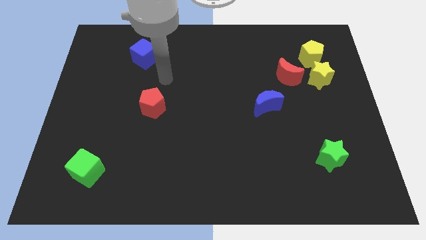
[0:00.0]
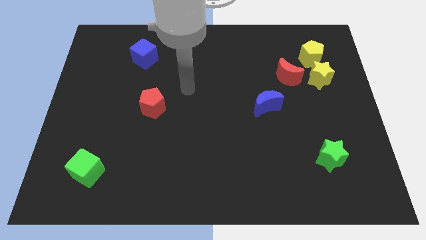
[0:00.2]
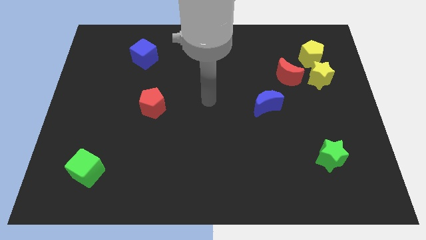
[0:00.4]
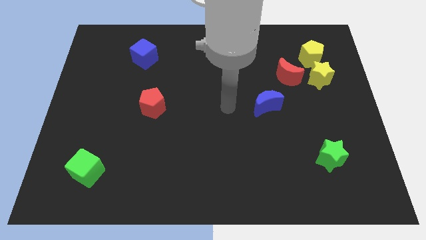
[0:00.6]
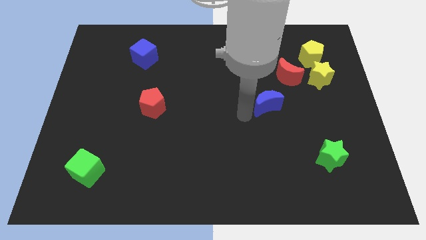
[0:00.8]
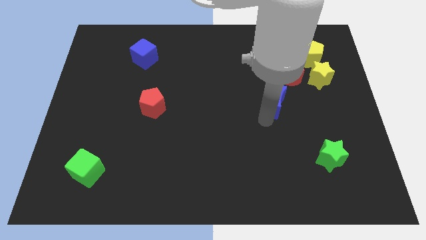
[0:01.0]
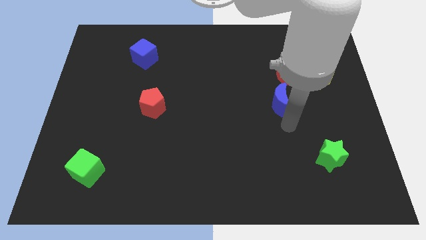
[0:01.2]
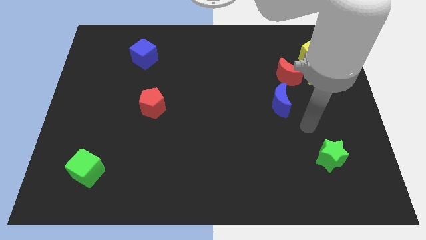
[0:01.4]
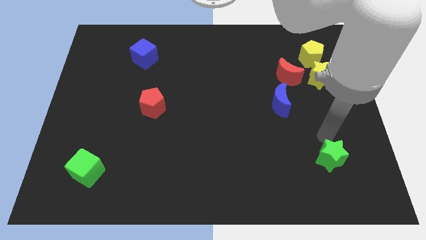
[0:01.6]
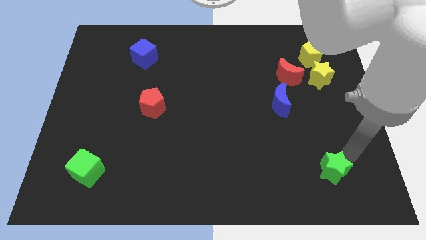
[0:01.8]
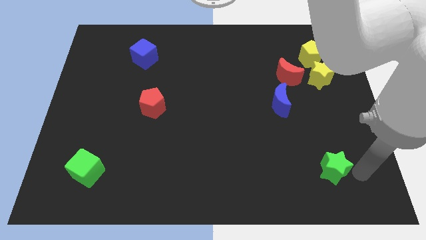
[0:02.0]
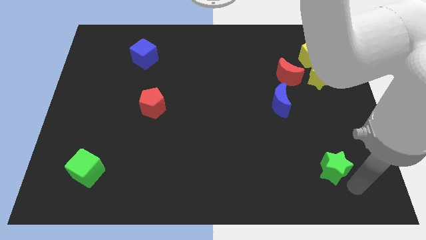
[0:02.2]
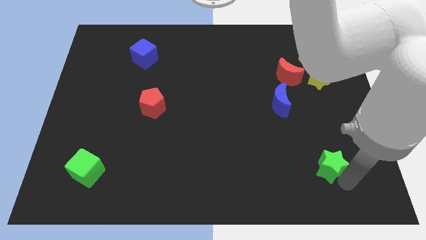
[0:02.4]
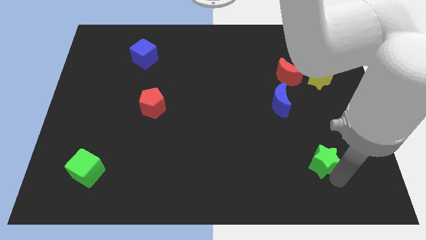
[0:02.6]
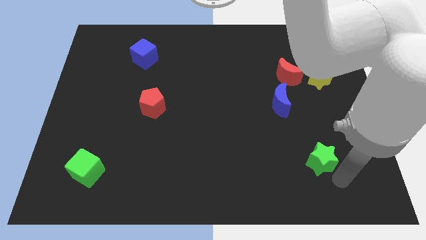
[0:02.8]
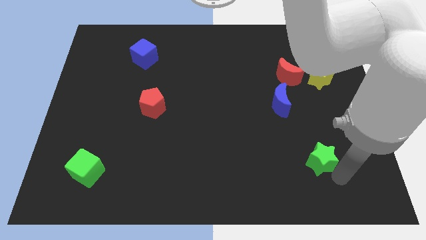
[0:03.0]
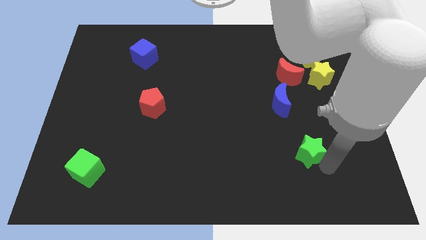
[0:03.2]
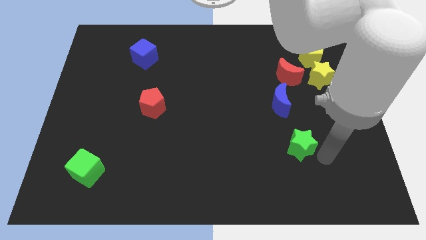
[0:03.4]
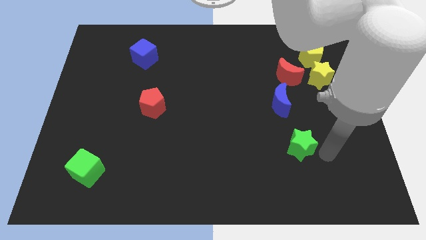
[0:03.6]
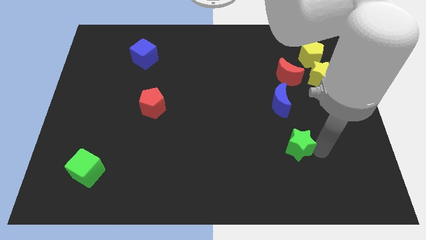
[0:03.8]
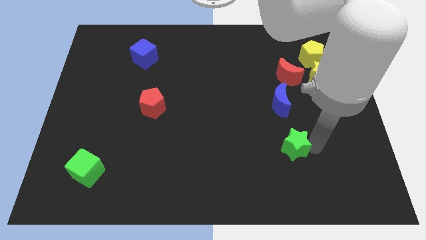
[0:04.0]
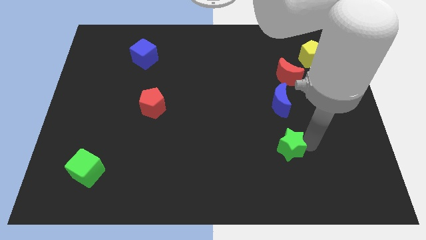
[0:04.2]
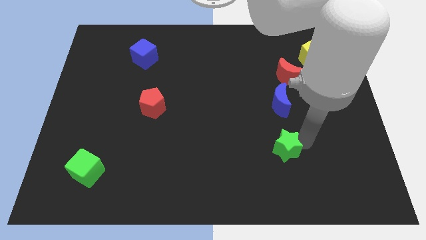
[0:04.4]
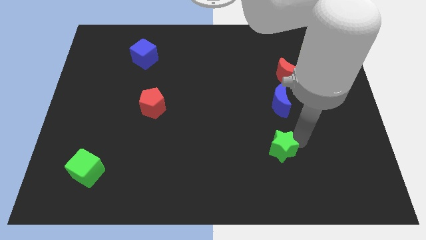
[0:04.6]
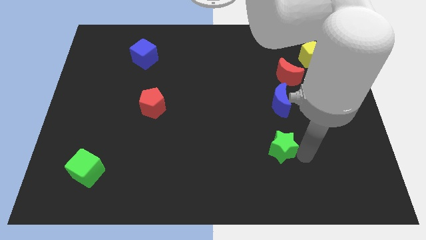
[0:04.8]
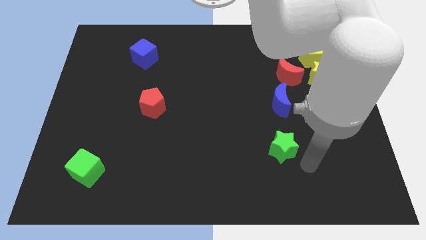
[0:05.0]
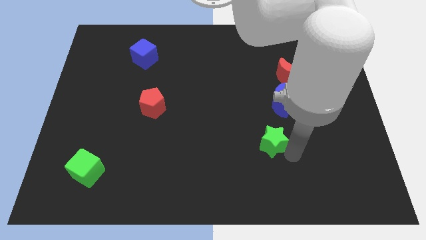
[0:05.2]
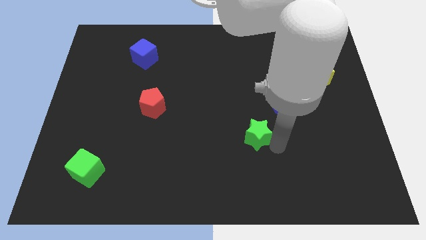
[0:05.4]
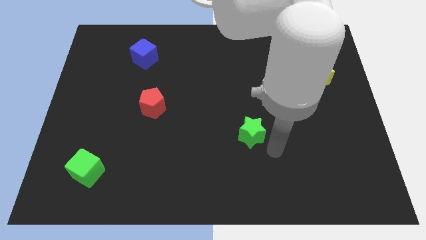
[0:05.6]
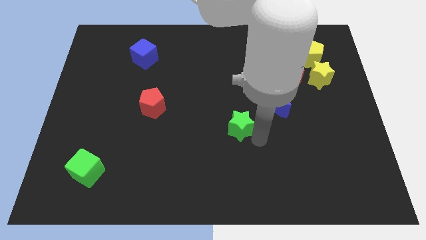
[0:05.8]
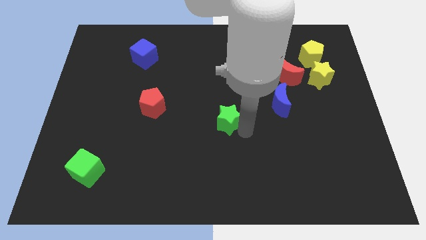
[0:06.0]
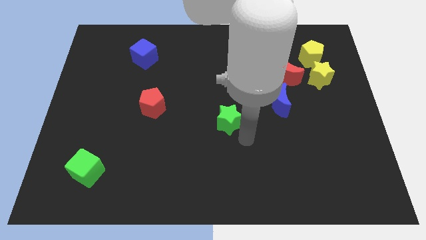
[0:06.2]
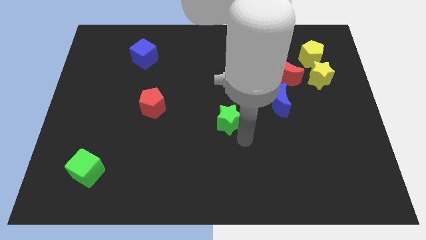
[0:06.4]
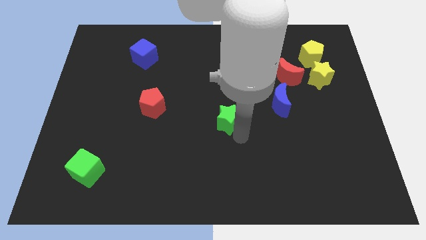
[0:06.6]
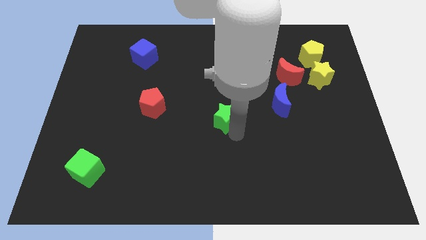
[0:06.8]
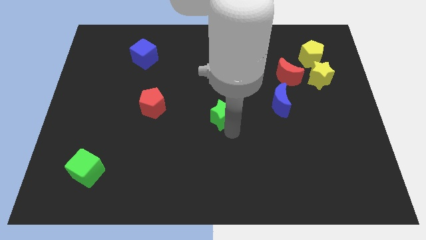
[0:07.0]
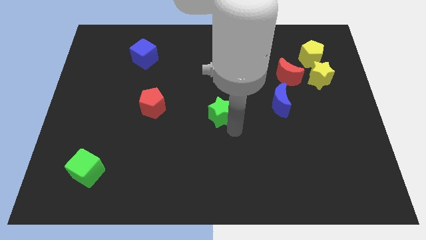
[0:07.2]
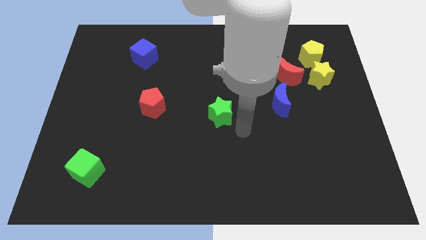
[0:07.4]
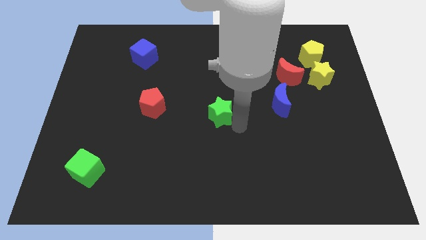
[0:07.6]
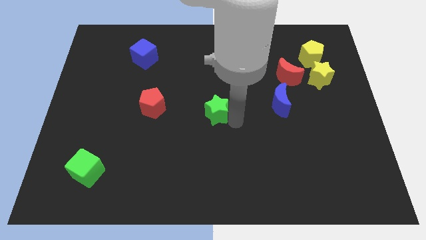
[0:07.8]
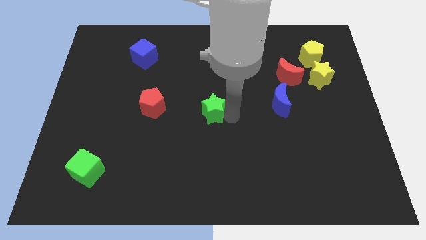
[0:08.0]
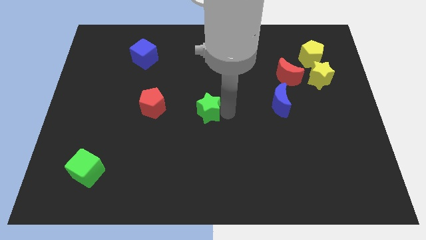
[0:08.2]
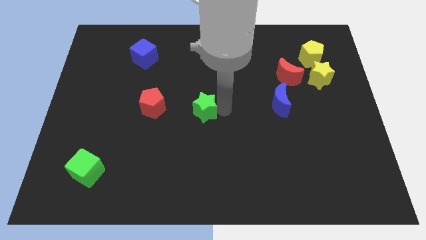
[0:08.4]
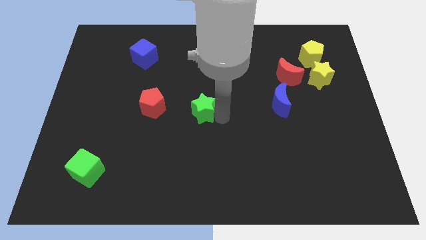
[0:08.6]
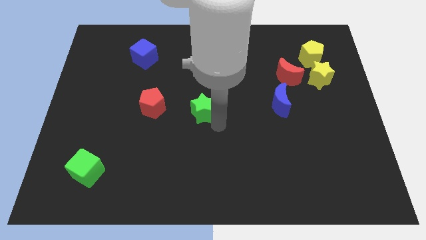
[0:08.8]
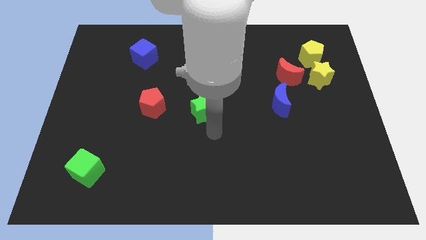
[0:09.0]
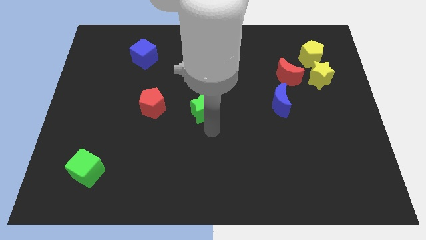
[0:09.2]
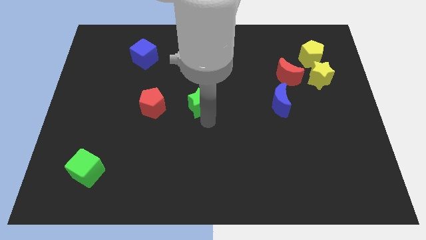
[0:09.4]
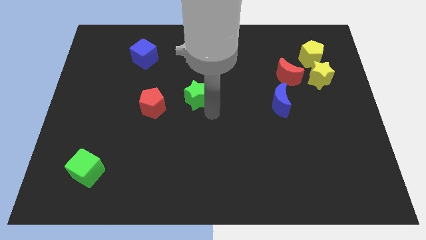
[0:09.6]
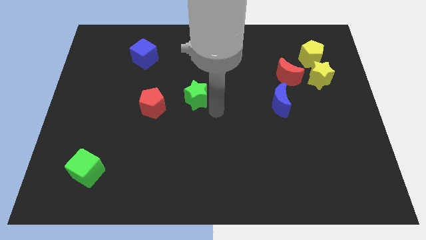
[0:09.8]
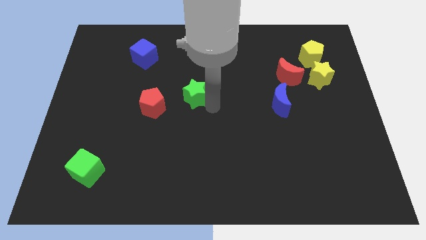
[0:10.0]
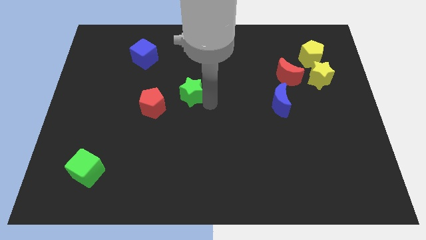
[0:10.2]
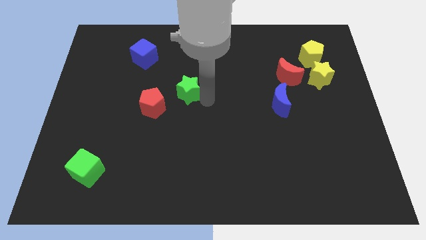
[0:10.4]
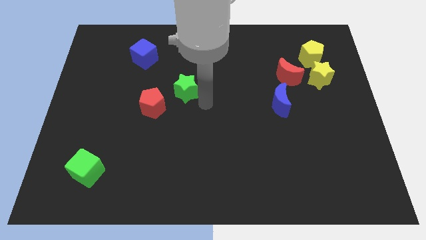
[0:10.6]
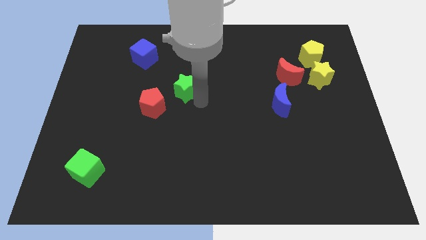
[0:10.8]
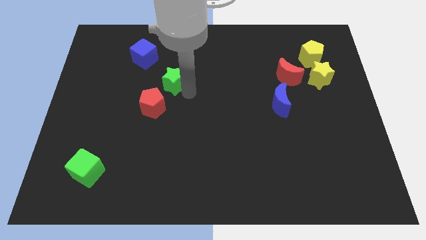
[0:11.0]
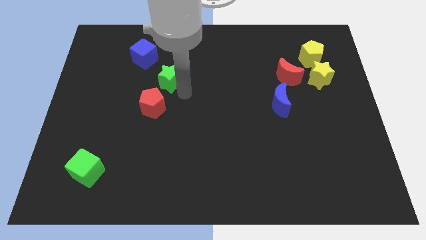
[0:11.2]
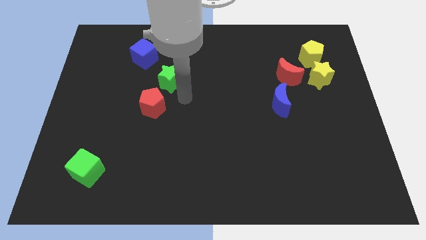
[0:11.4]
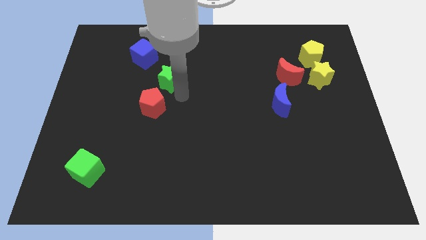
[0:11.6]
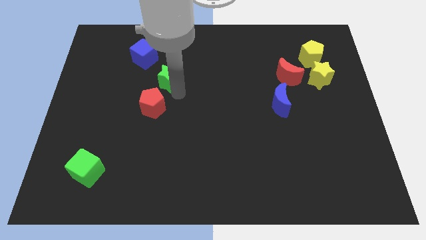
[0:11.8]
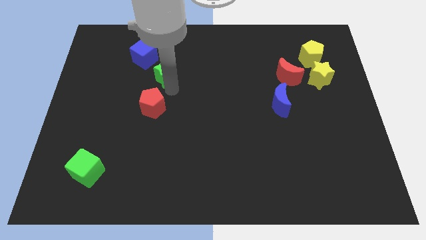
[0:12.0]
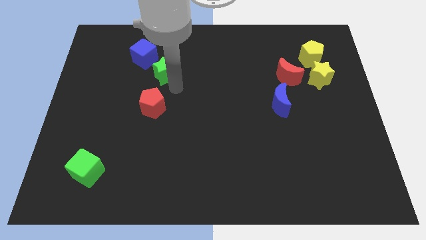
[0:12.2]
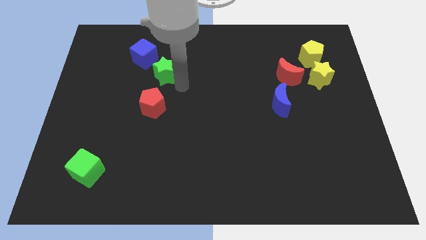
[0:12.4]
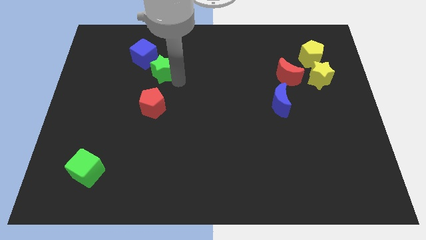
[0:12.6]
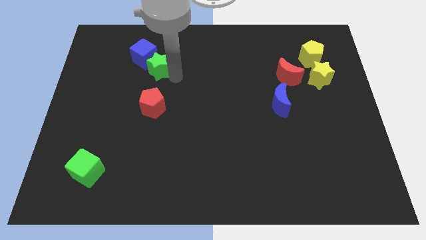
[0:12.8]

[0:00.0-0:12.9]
move the green star towards the blue cube

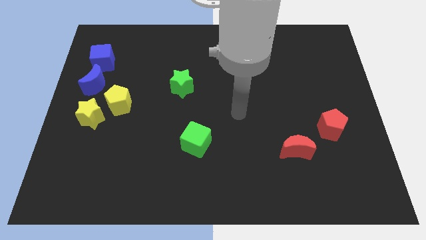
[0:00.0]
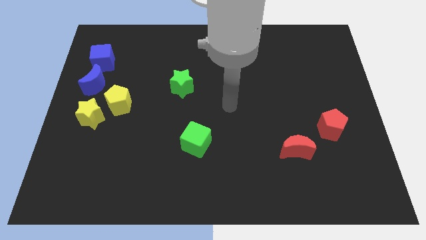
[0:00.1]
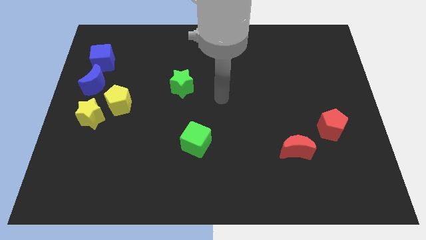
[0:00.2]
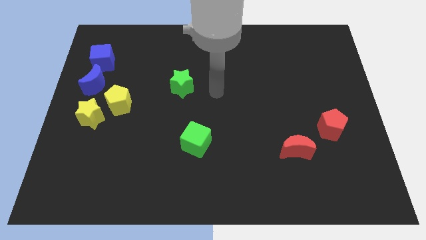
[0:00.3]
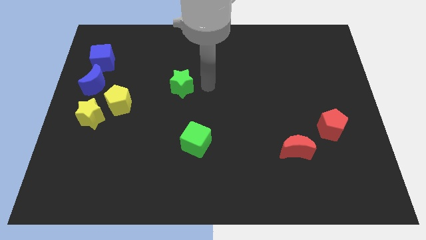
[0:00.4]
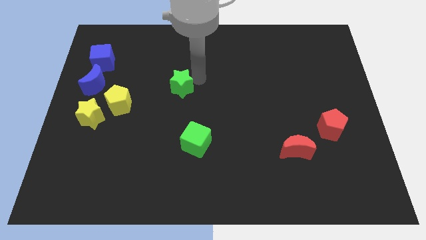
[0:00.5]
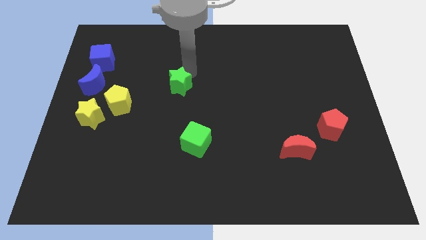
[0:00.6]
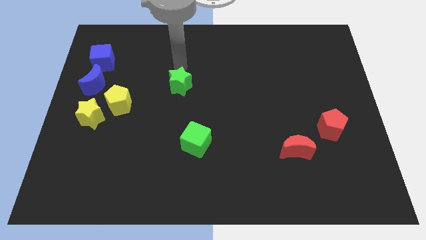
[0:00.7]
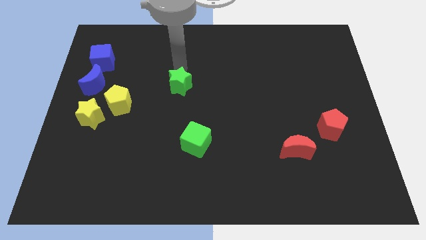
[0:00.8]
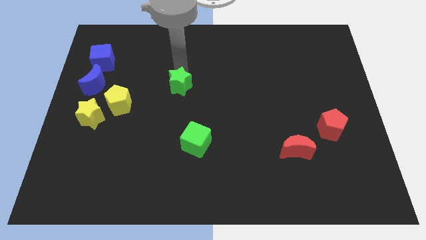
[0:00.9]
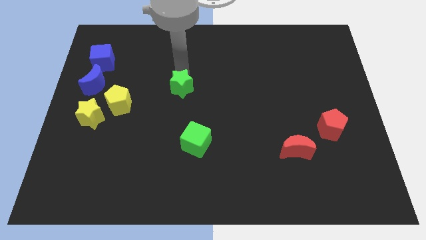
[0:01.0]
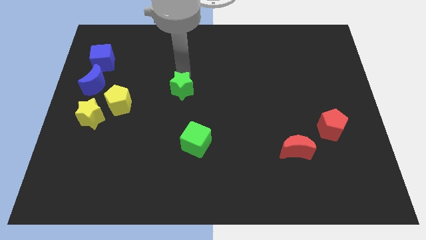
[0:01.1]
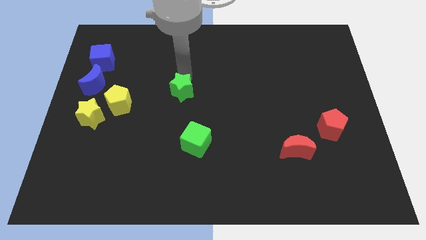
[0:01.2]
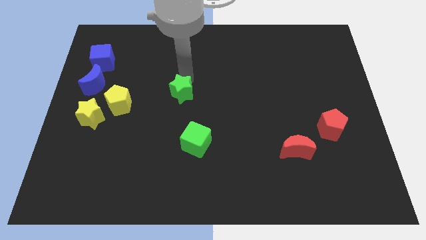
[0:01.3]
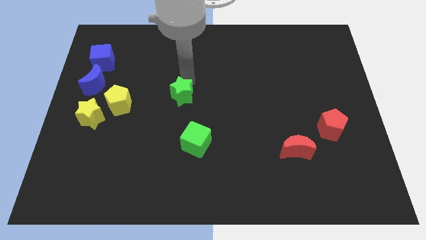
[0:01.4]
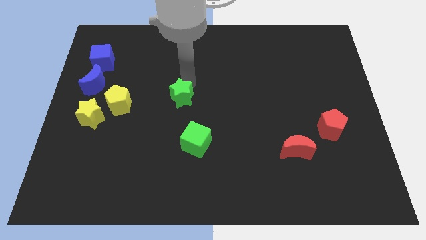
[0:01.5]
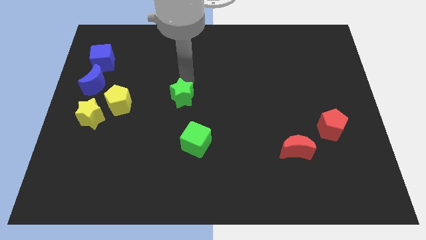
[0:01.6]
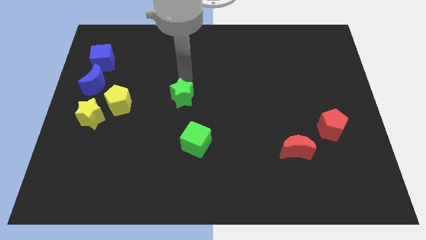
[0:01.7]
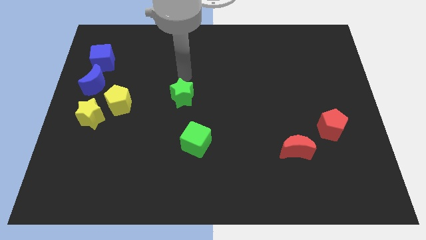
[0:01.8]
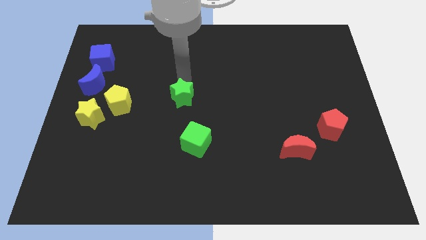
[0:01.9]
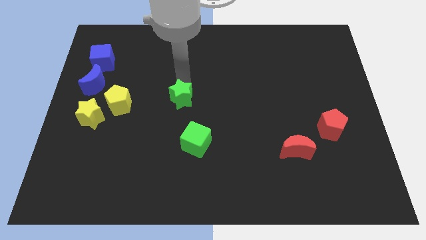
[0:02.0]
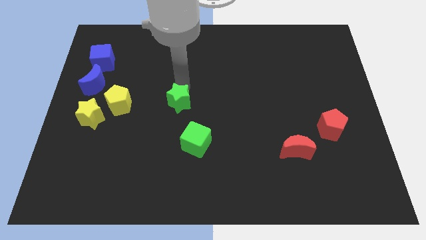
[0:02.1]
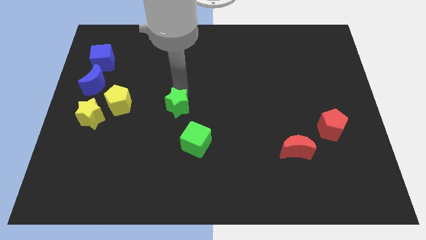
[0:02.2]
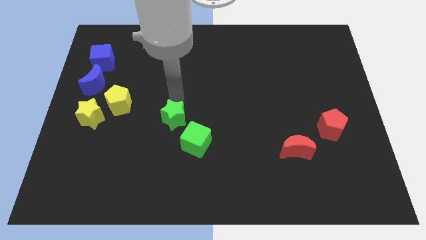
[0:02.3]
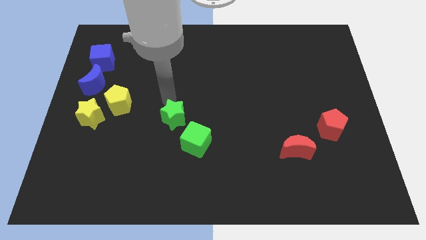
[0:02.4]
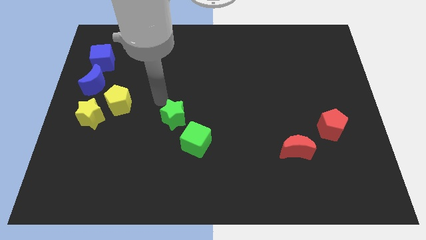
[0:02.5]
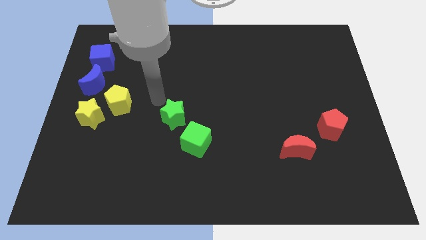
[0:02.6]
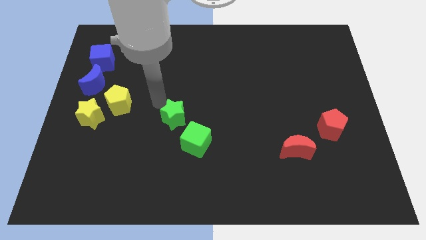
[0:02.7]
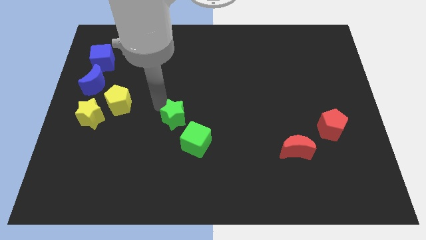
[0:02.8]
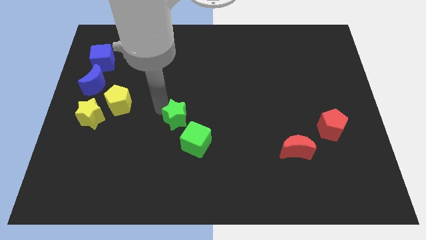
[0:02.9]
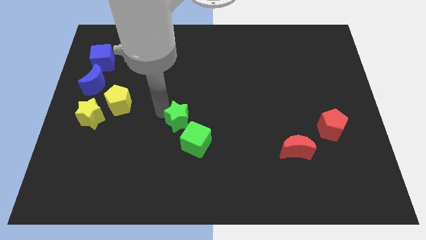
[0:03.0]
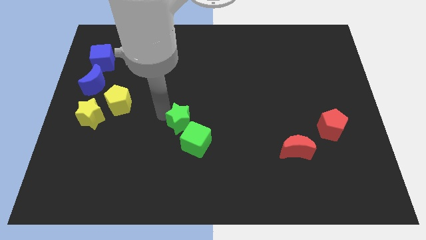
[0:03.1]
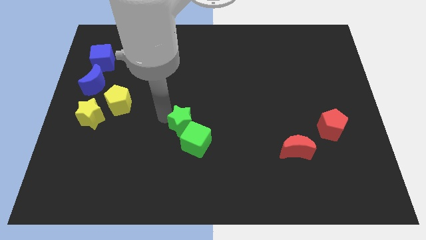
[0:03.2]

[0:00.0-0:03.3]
push the green star close to the green cube
